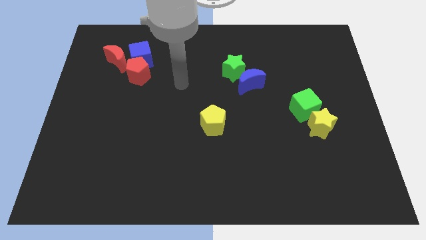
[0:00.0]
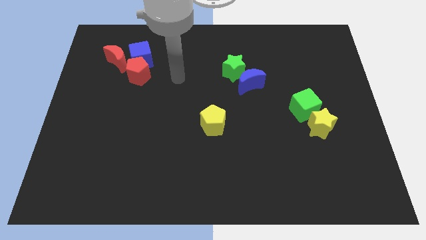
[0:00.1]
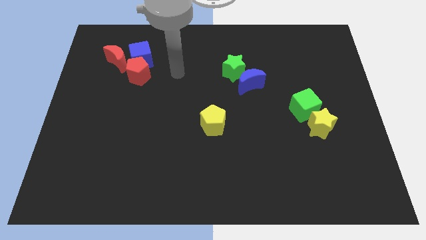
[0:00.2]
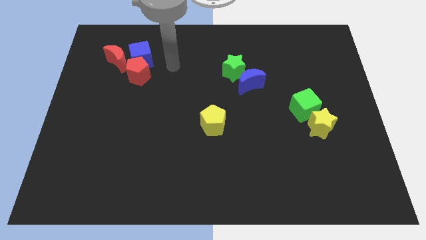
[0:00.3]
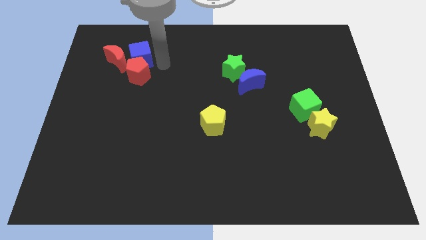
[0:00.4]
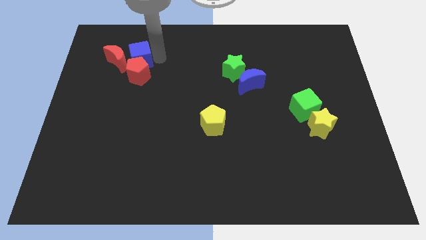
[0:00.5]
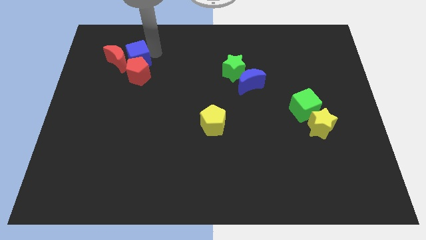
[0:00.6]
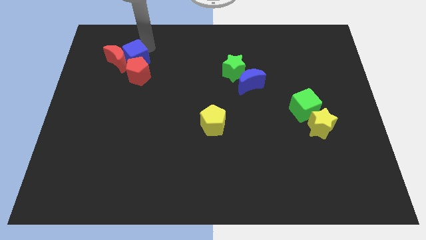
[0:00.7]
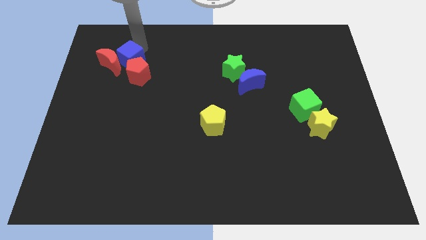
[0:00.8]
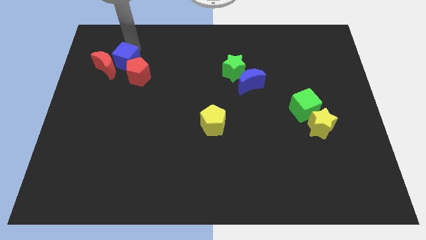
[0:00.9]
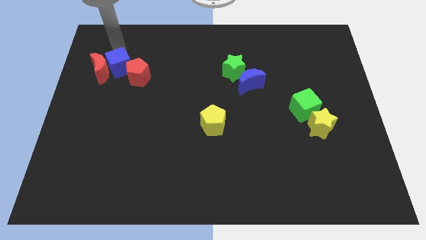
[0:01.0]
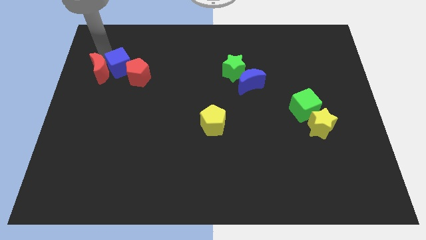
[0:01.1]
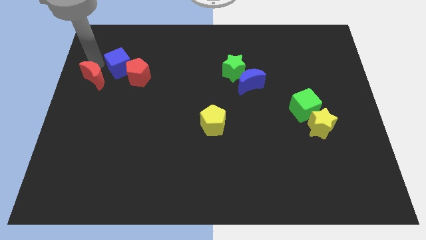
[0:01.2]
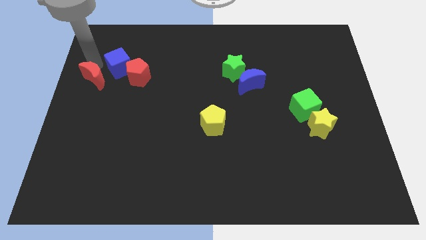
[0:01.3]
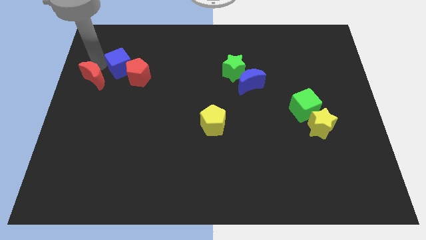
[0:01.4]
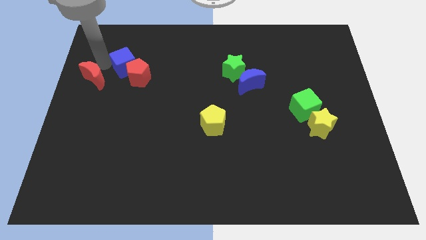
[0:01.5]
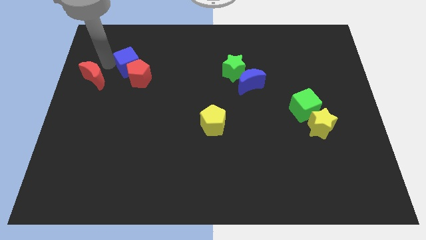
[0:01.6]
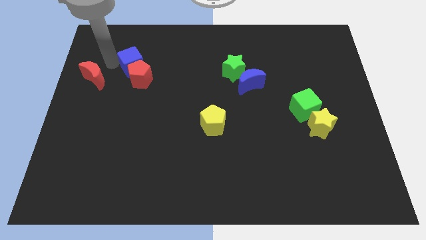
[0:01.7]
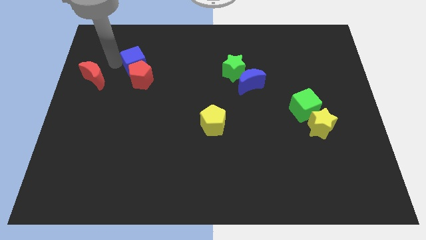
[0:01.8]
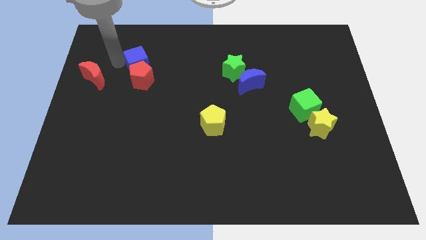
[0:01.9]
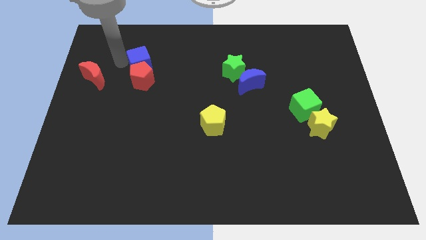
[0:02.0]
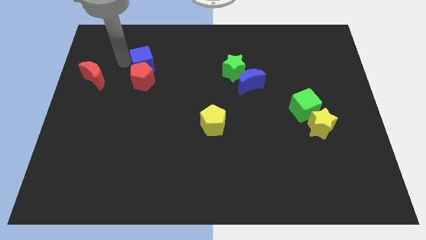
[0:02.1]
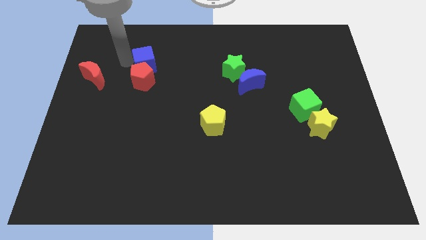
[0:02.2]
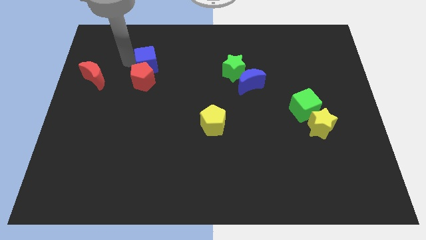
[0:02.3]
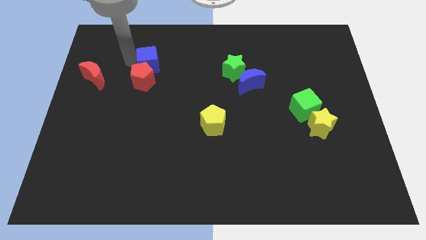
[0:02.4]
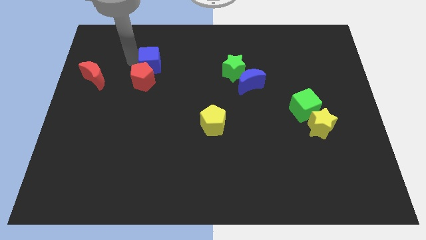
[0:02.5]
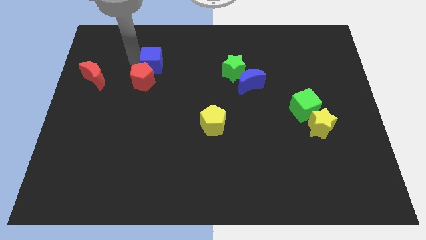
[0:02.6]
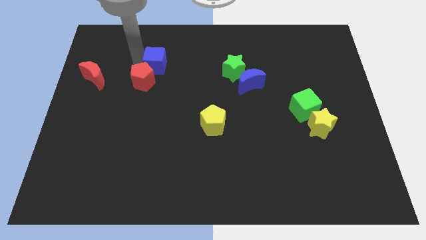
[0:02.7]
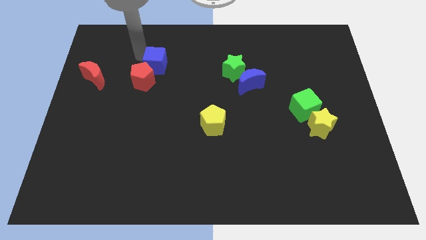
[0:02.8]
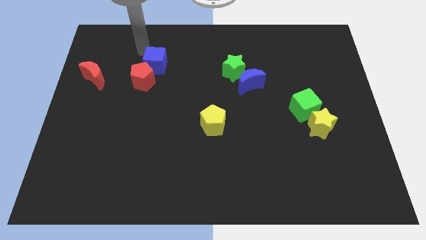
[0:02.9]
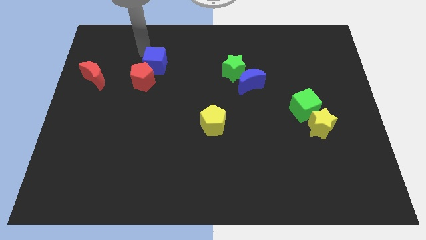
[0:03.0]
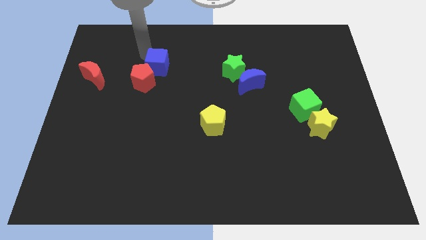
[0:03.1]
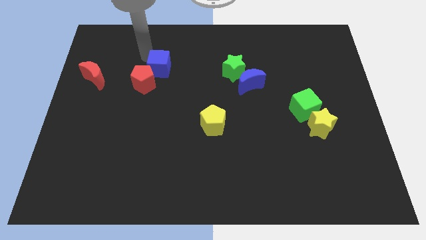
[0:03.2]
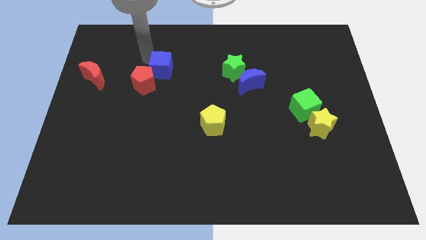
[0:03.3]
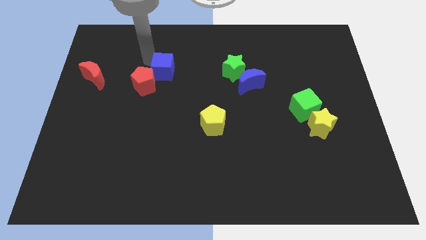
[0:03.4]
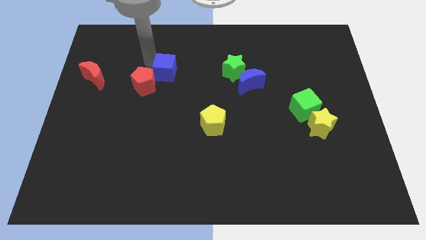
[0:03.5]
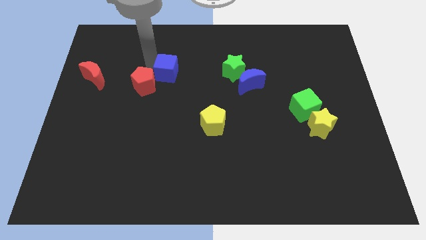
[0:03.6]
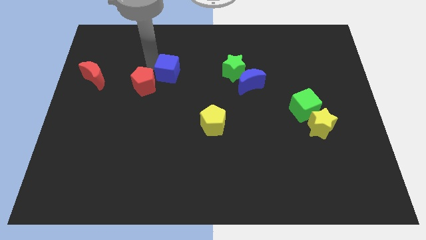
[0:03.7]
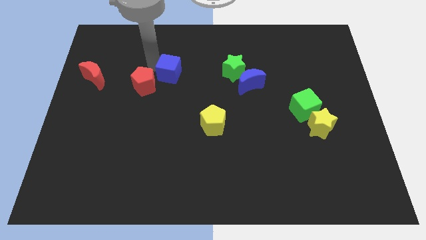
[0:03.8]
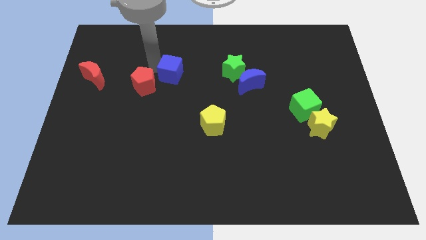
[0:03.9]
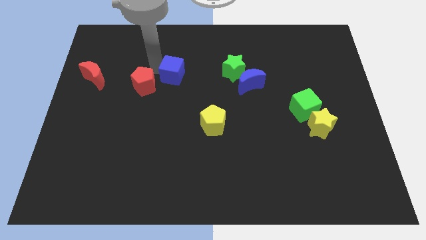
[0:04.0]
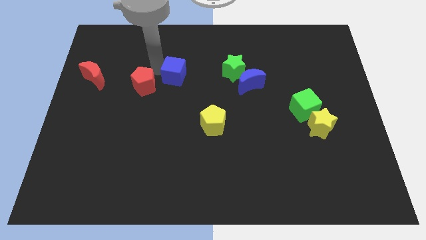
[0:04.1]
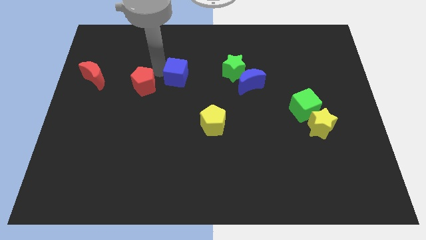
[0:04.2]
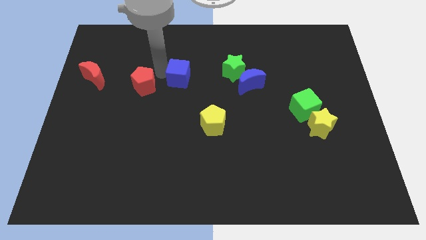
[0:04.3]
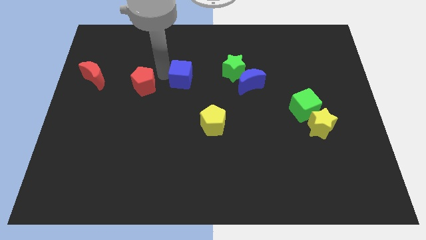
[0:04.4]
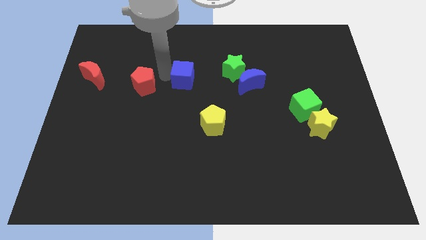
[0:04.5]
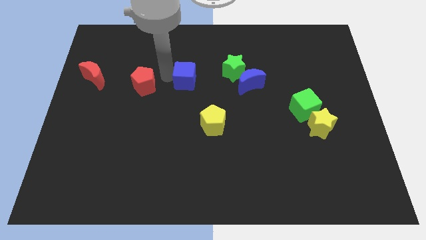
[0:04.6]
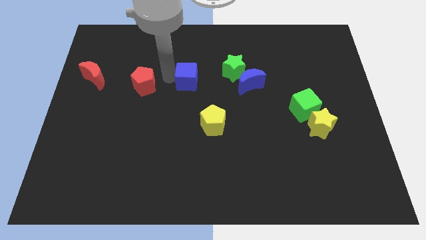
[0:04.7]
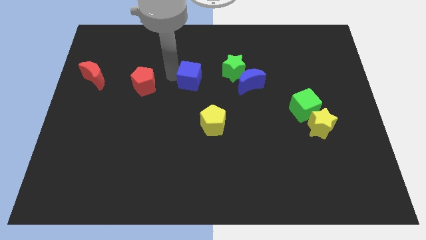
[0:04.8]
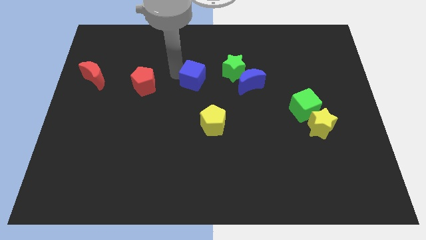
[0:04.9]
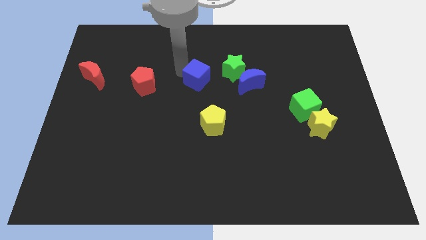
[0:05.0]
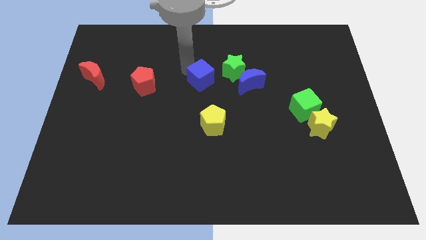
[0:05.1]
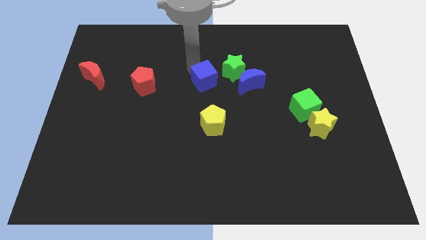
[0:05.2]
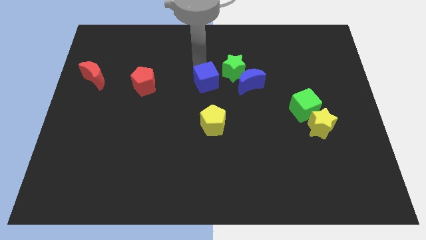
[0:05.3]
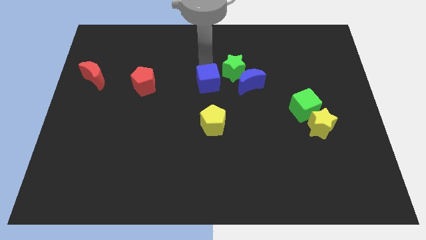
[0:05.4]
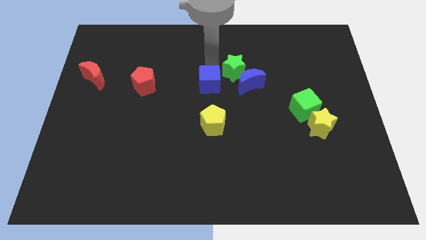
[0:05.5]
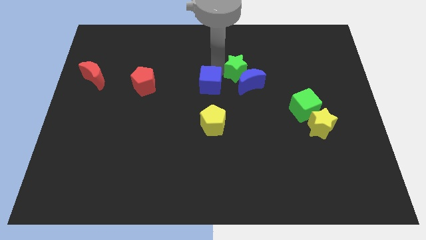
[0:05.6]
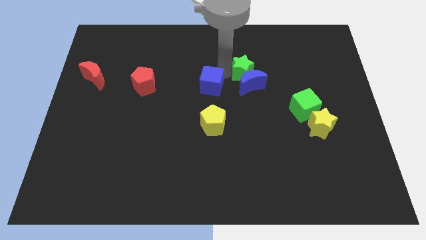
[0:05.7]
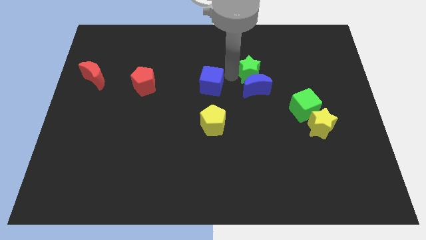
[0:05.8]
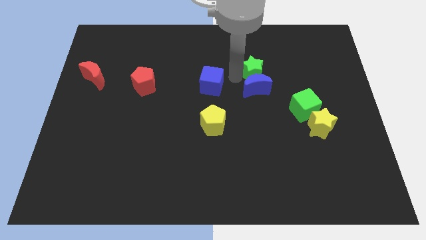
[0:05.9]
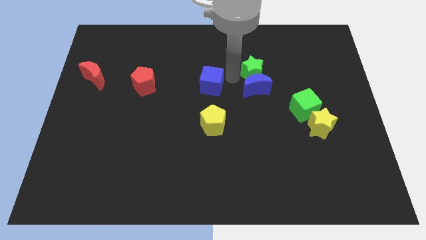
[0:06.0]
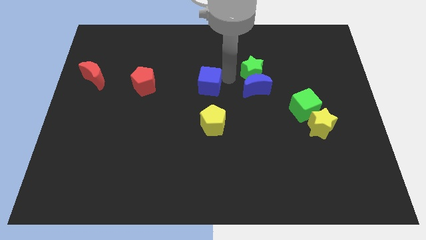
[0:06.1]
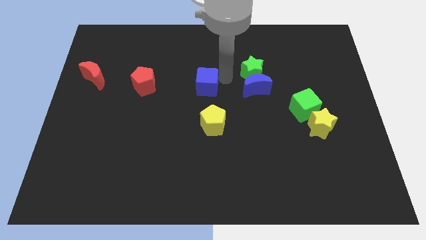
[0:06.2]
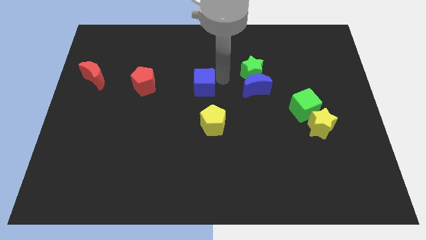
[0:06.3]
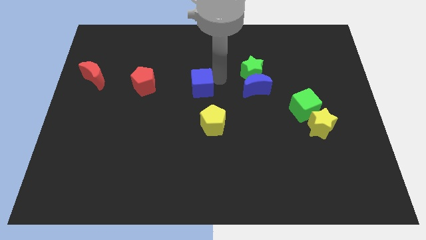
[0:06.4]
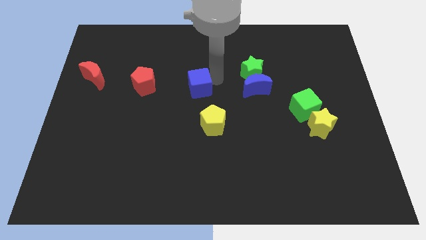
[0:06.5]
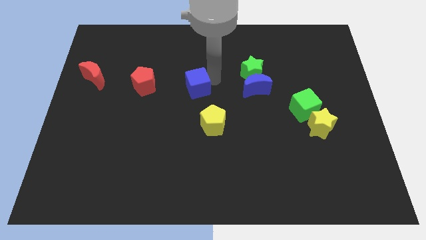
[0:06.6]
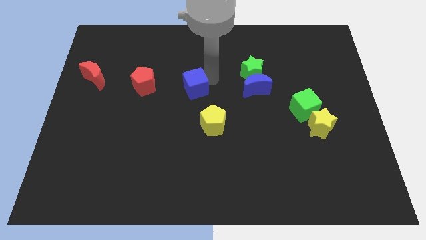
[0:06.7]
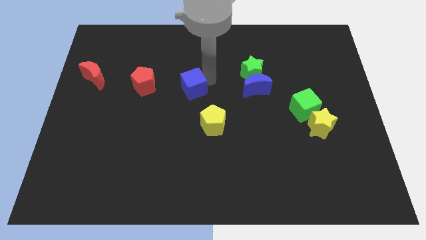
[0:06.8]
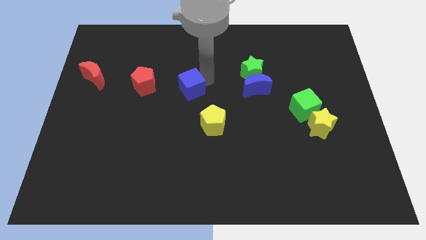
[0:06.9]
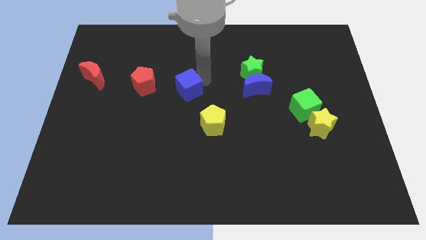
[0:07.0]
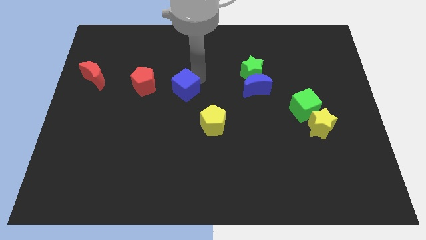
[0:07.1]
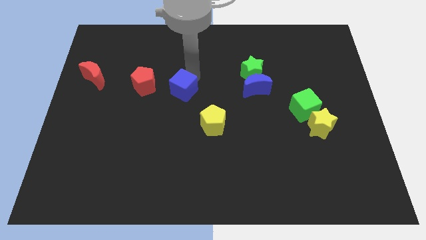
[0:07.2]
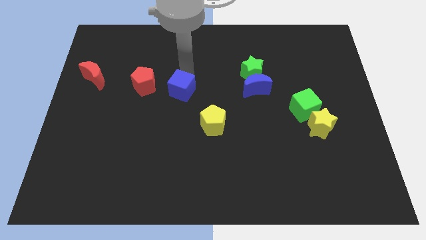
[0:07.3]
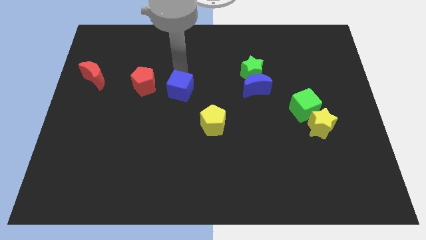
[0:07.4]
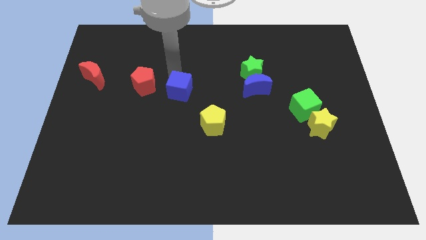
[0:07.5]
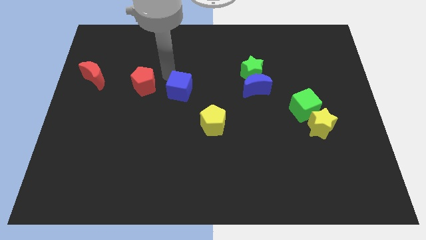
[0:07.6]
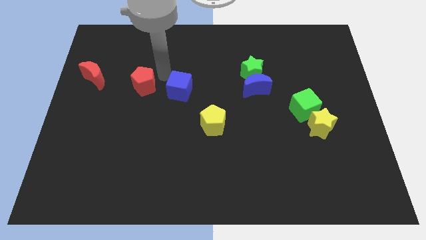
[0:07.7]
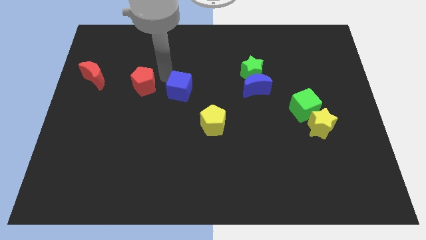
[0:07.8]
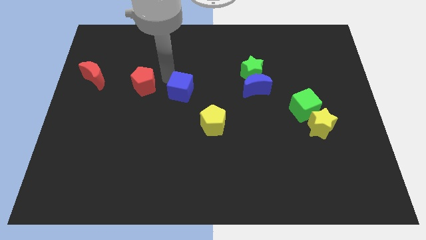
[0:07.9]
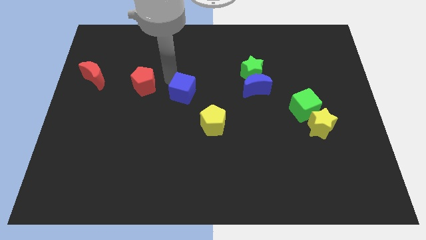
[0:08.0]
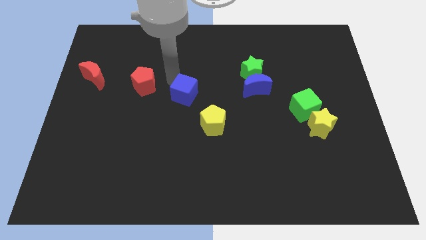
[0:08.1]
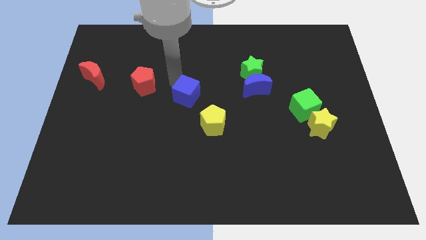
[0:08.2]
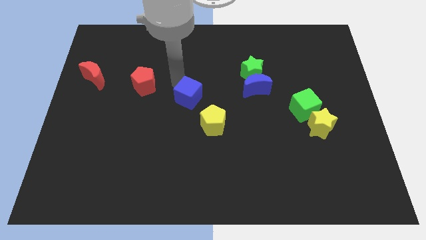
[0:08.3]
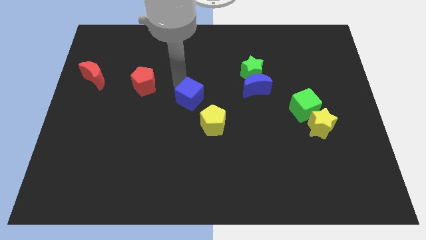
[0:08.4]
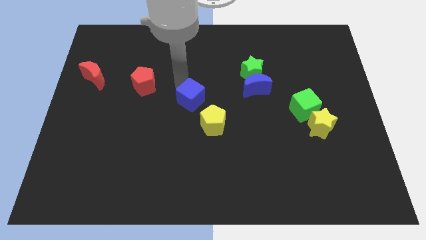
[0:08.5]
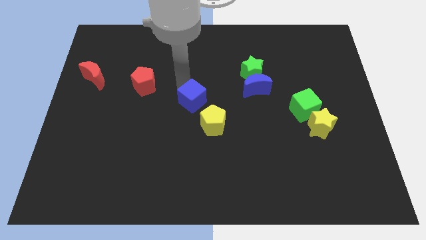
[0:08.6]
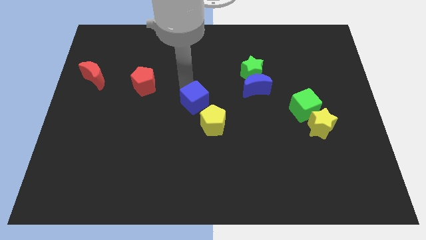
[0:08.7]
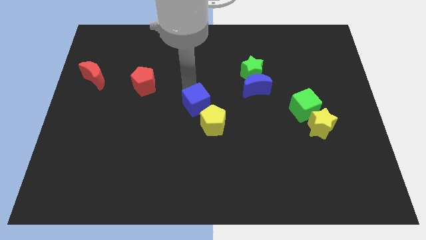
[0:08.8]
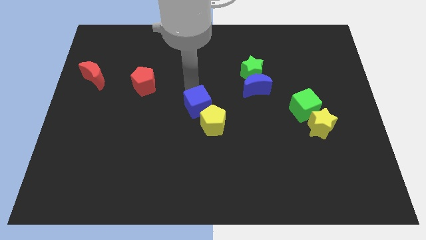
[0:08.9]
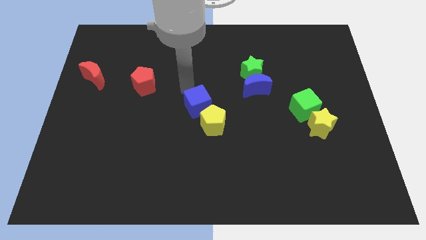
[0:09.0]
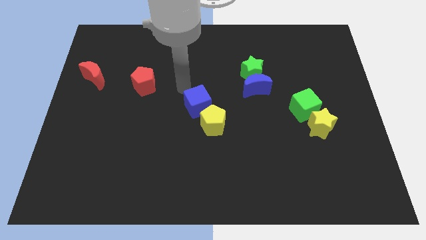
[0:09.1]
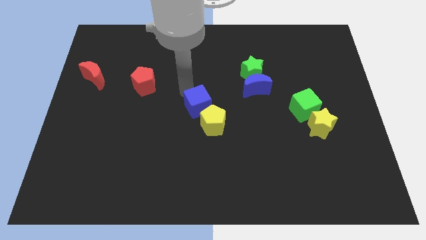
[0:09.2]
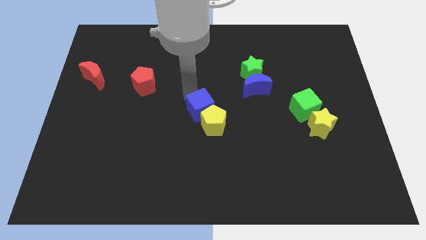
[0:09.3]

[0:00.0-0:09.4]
push the blue cube next to the yellow pentagon
